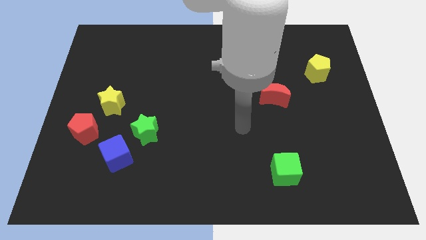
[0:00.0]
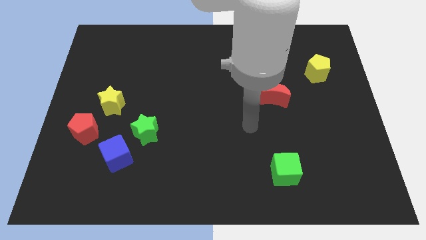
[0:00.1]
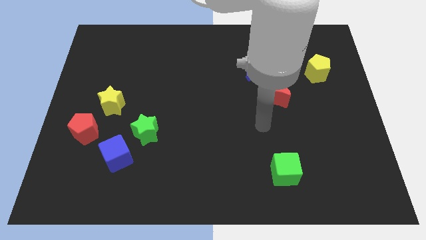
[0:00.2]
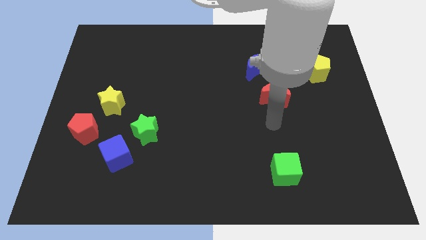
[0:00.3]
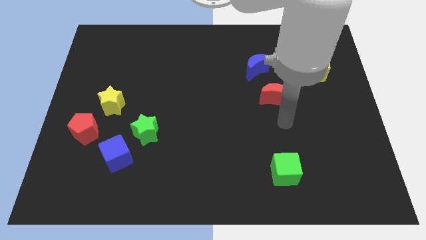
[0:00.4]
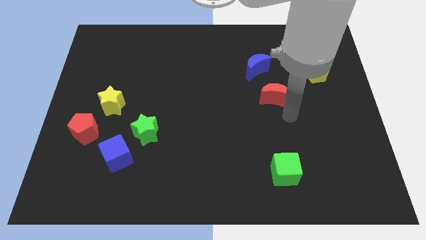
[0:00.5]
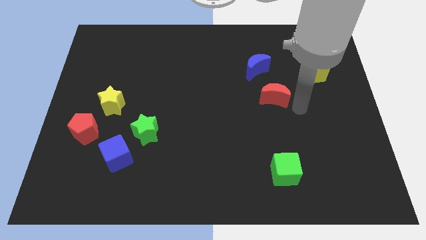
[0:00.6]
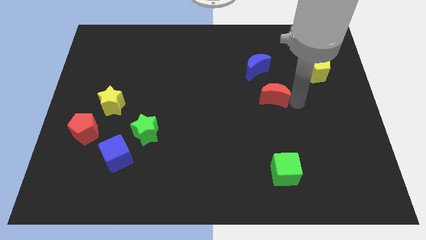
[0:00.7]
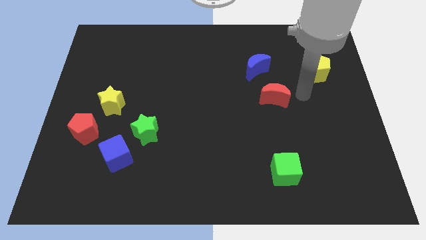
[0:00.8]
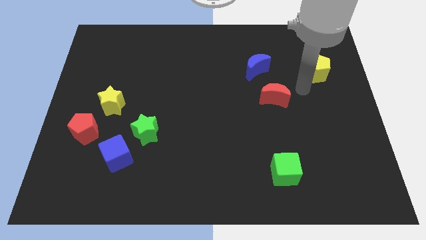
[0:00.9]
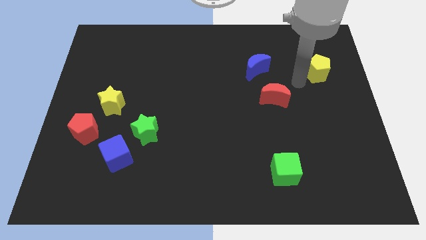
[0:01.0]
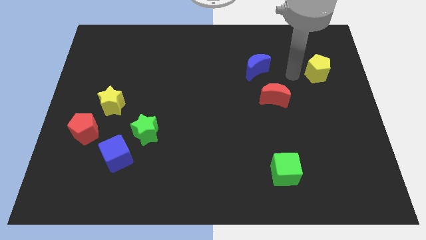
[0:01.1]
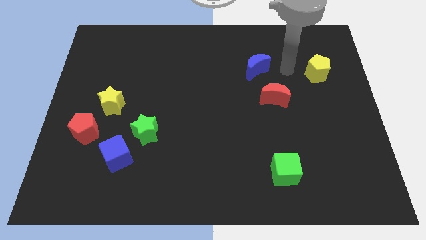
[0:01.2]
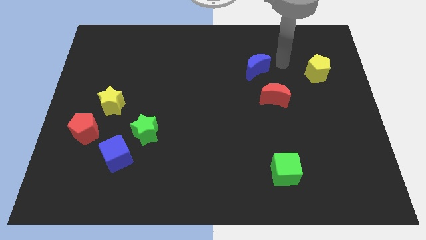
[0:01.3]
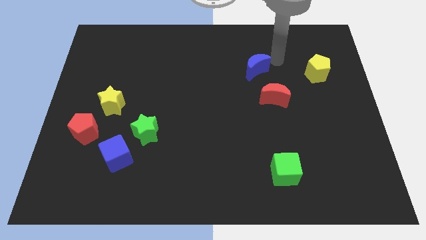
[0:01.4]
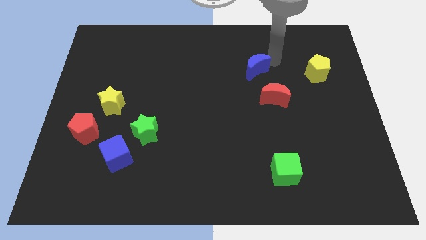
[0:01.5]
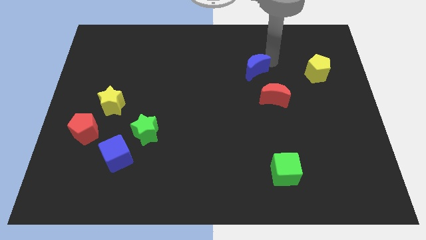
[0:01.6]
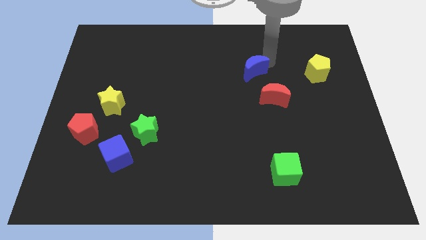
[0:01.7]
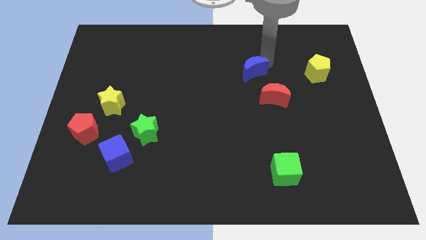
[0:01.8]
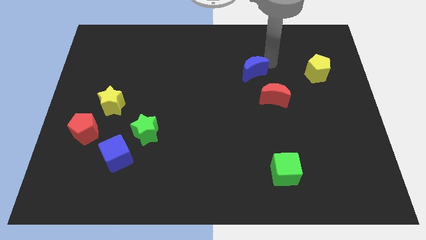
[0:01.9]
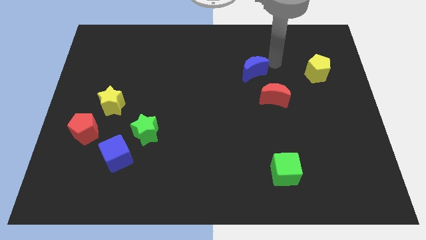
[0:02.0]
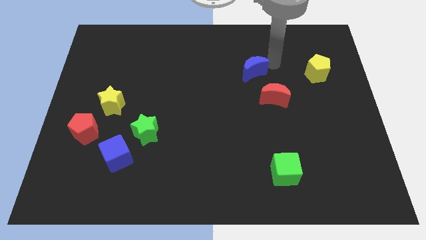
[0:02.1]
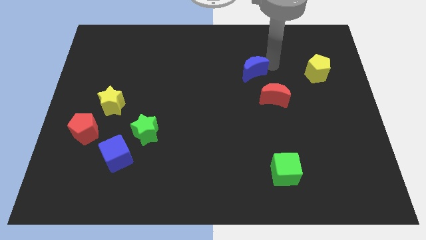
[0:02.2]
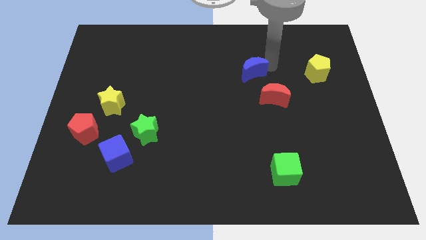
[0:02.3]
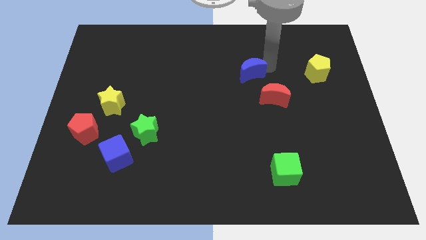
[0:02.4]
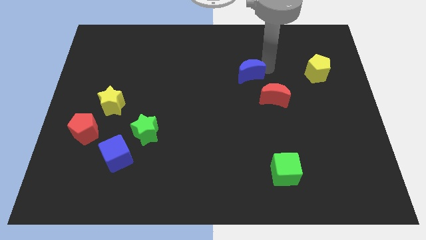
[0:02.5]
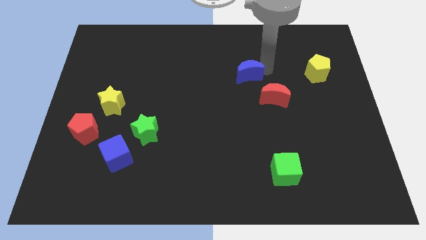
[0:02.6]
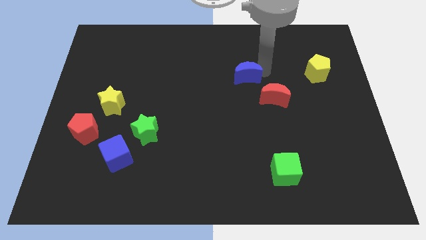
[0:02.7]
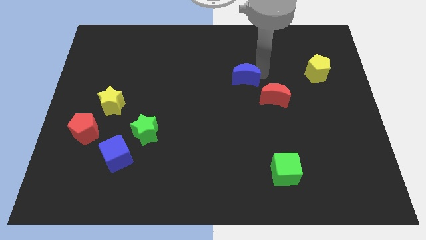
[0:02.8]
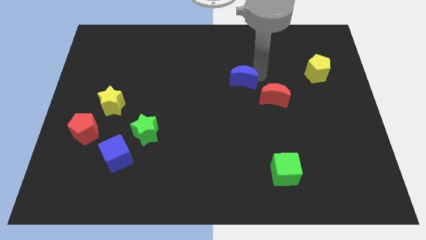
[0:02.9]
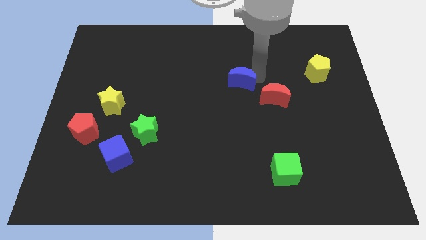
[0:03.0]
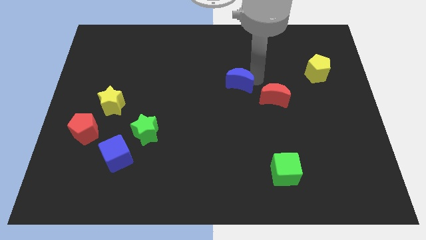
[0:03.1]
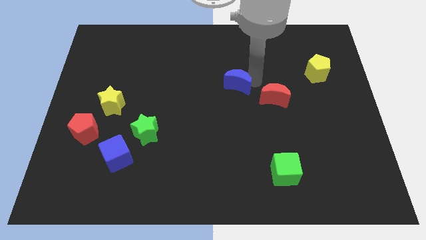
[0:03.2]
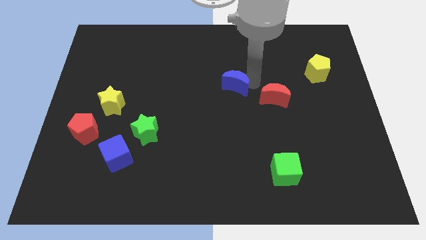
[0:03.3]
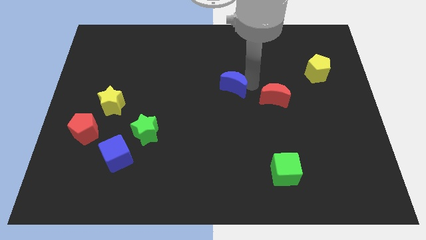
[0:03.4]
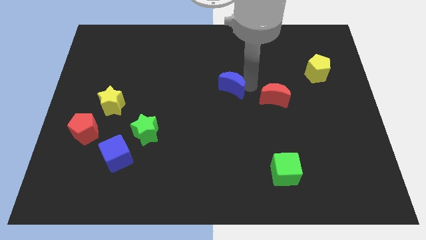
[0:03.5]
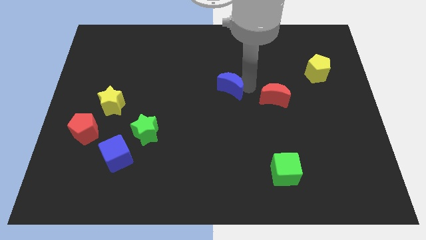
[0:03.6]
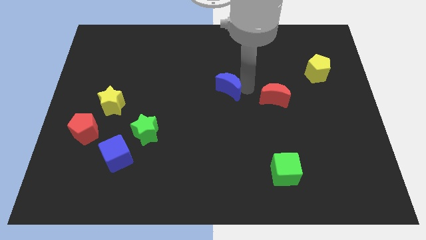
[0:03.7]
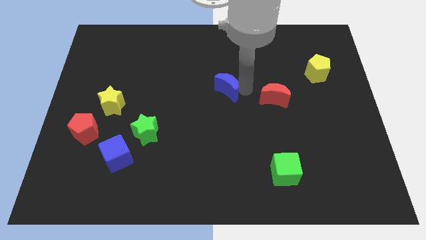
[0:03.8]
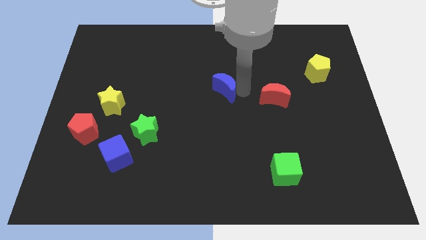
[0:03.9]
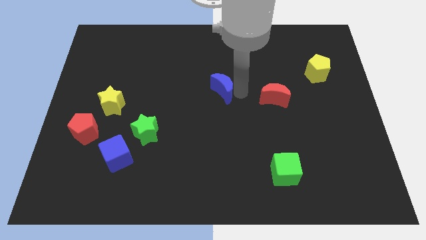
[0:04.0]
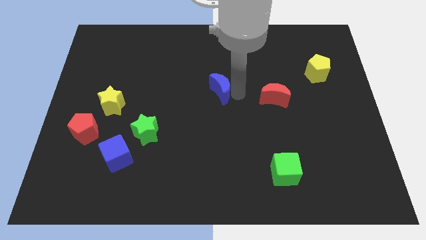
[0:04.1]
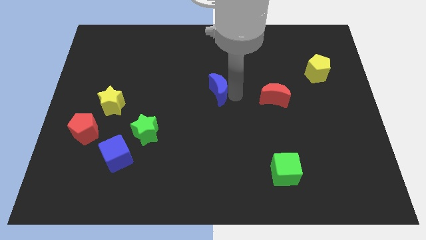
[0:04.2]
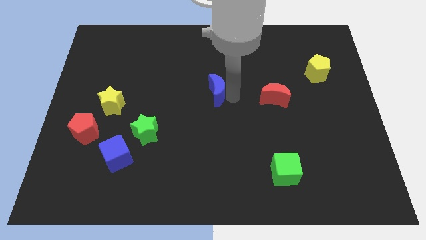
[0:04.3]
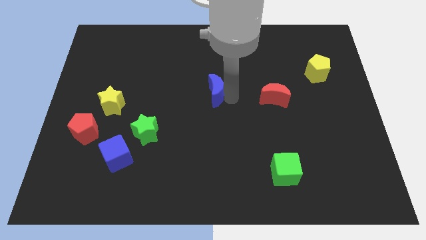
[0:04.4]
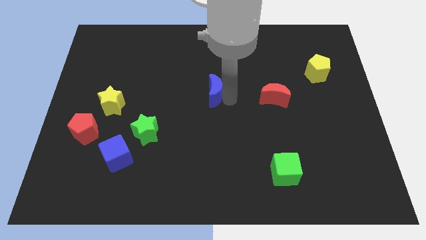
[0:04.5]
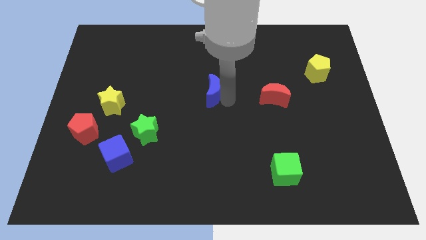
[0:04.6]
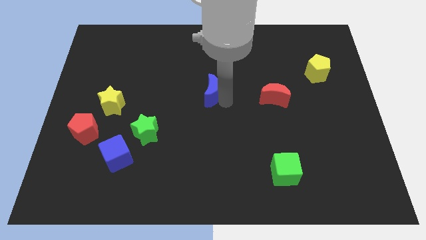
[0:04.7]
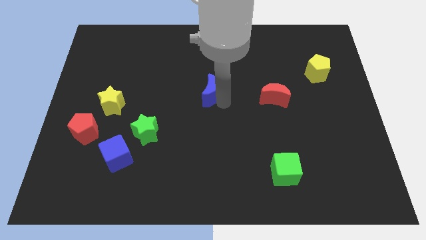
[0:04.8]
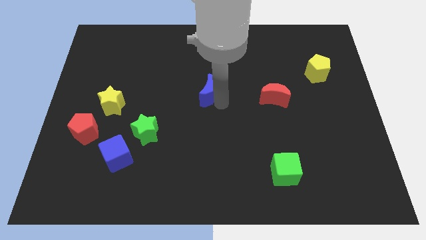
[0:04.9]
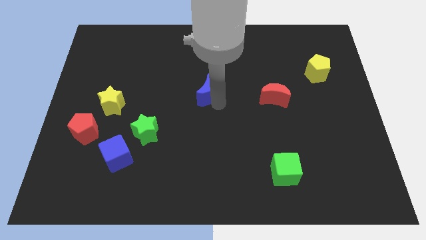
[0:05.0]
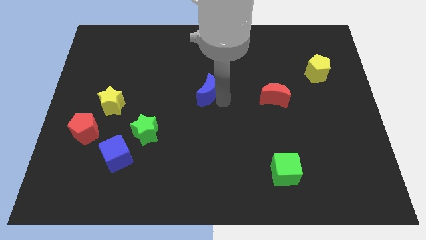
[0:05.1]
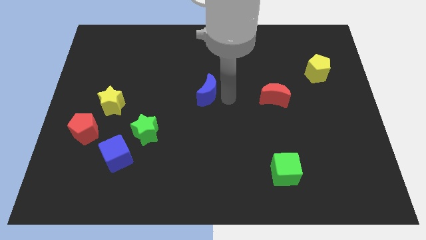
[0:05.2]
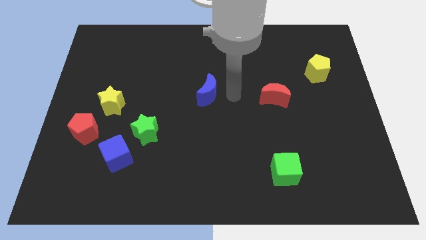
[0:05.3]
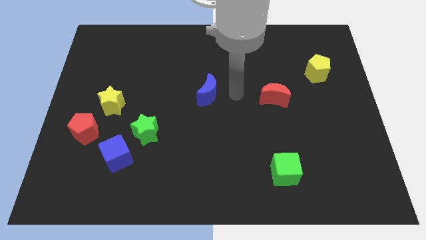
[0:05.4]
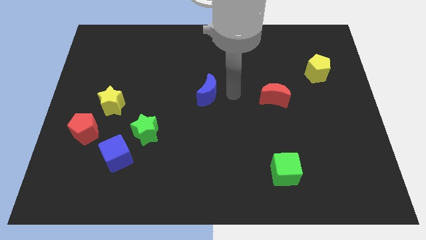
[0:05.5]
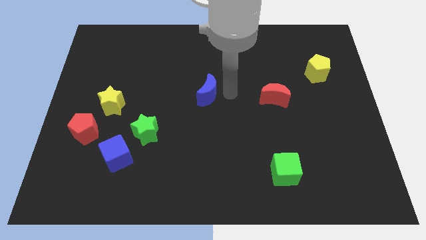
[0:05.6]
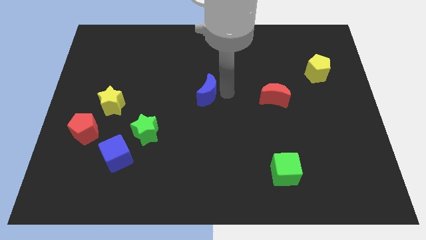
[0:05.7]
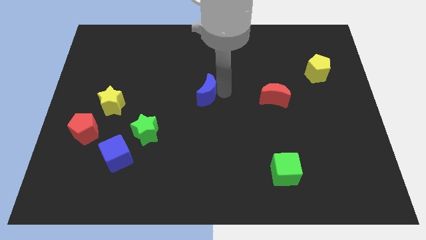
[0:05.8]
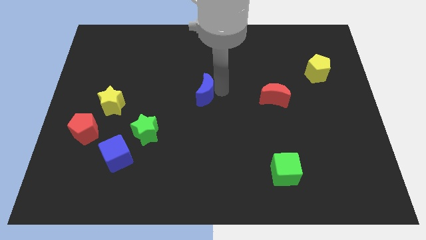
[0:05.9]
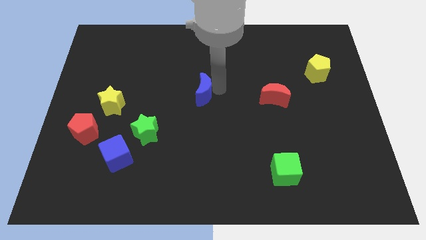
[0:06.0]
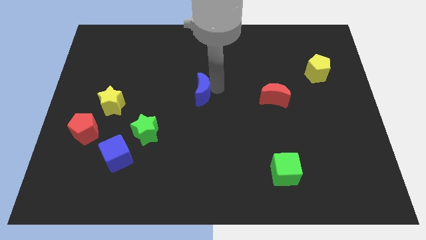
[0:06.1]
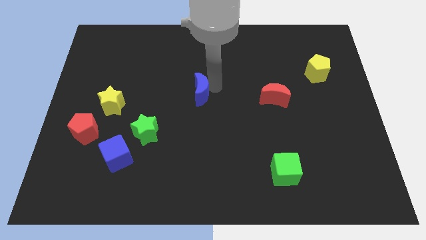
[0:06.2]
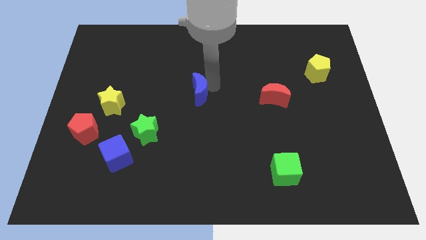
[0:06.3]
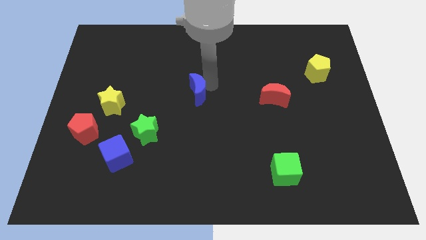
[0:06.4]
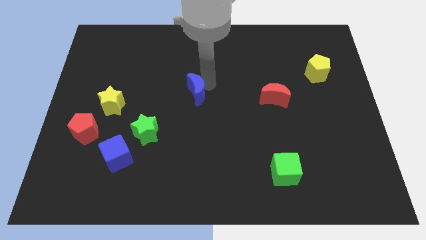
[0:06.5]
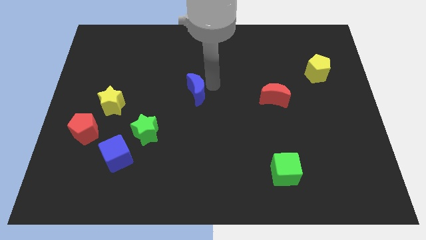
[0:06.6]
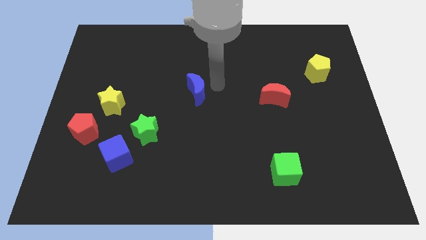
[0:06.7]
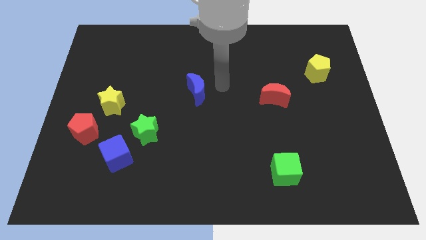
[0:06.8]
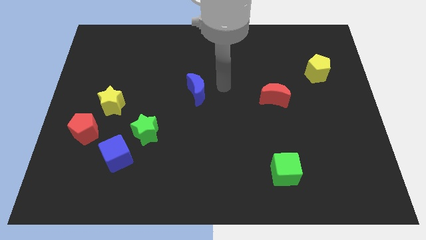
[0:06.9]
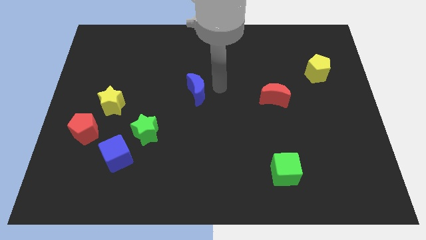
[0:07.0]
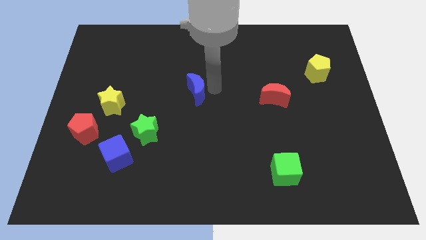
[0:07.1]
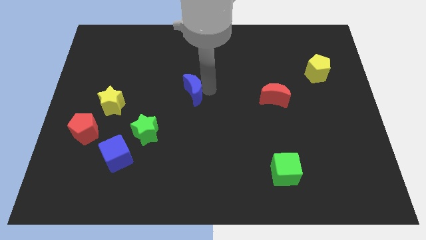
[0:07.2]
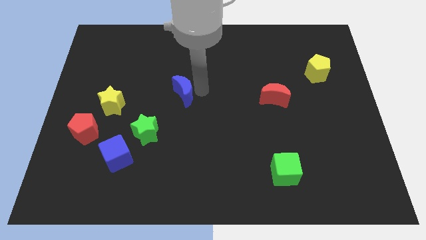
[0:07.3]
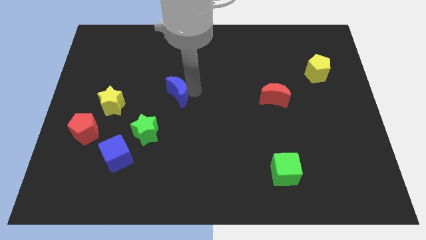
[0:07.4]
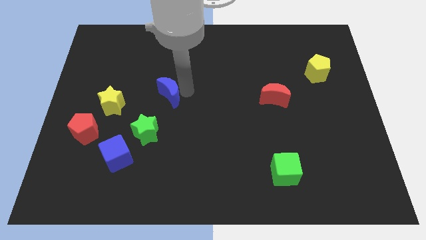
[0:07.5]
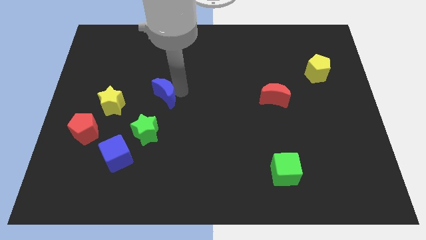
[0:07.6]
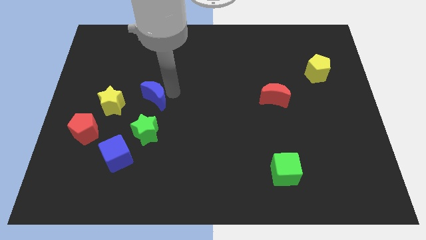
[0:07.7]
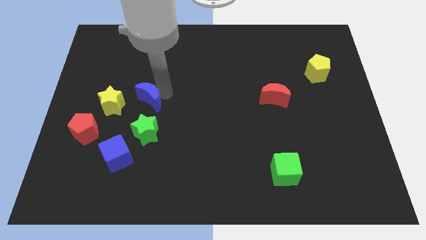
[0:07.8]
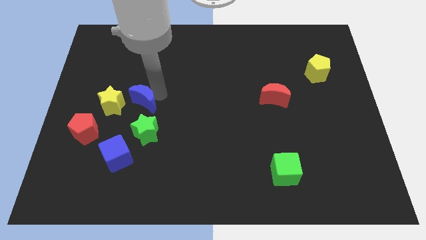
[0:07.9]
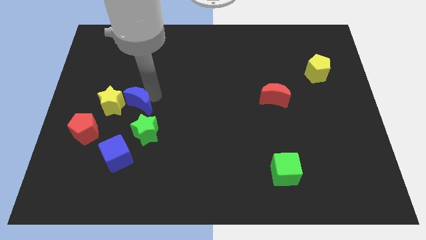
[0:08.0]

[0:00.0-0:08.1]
slide the blue moon close to the yellow star
